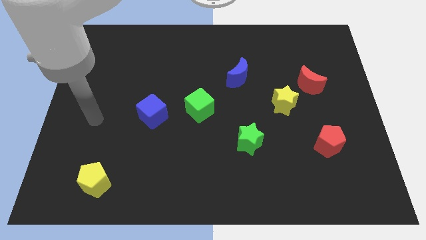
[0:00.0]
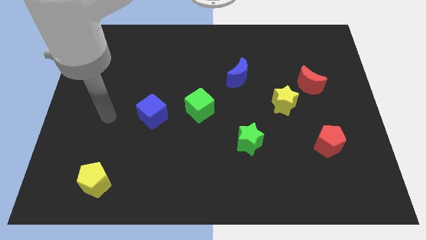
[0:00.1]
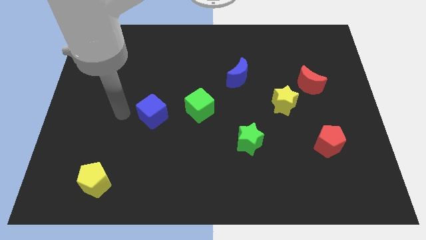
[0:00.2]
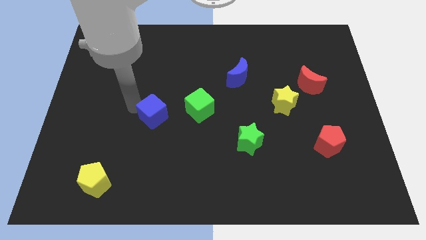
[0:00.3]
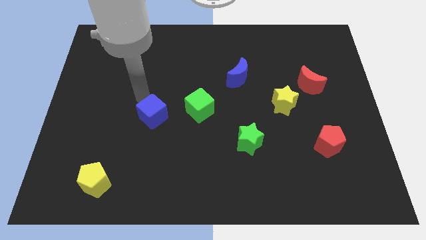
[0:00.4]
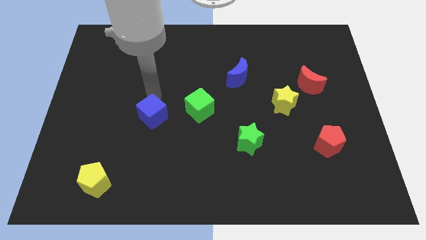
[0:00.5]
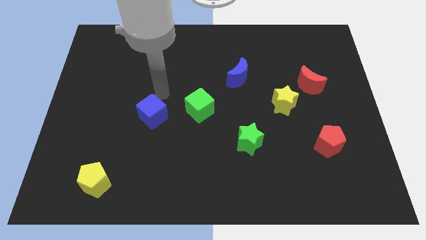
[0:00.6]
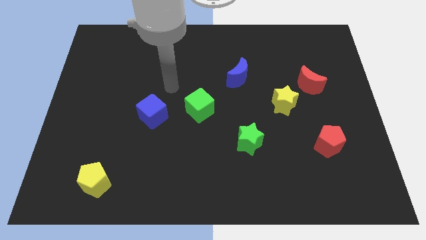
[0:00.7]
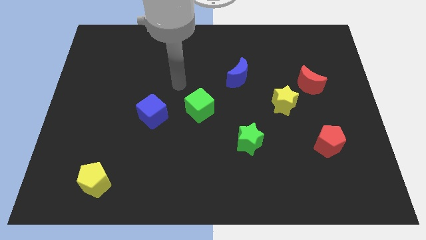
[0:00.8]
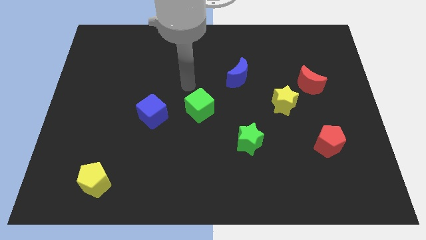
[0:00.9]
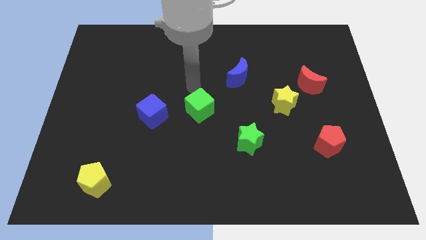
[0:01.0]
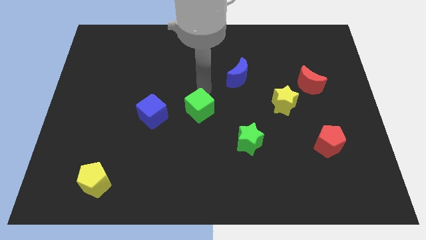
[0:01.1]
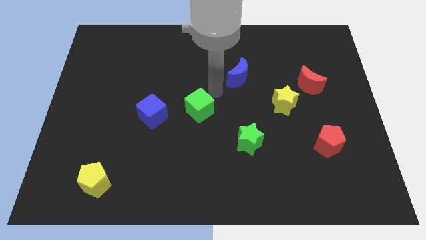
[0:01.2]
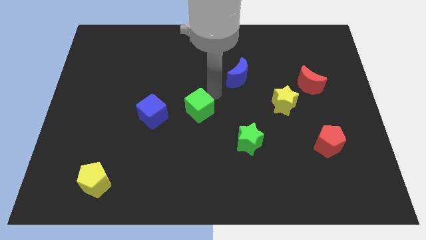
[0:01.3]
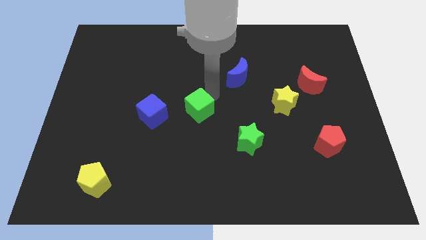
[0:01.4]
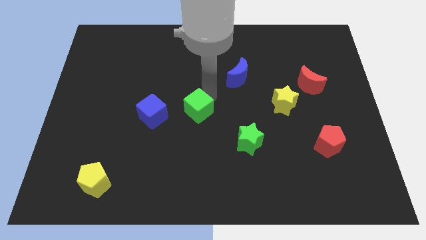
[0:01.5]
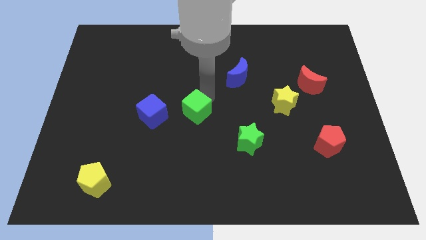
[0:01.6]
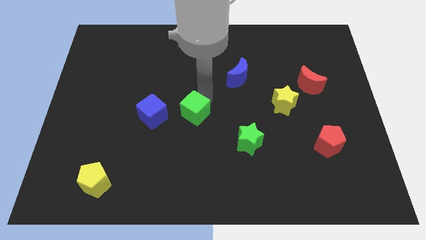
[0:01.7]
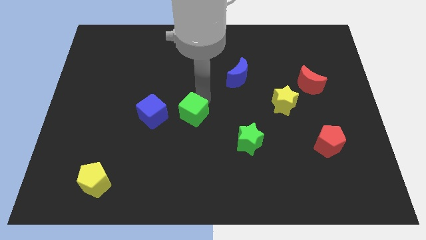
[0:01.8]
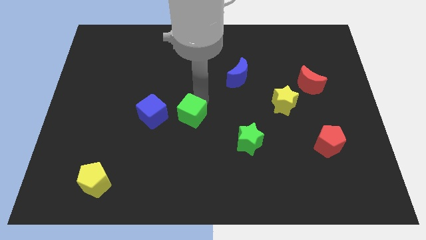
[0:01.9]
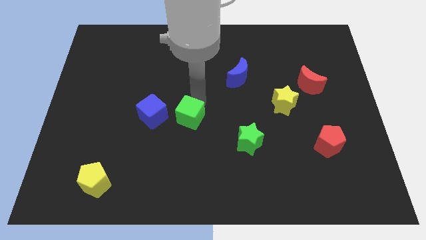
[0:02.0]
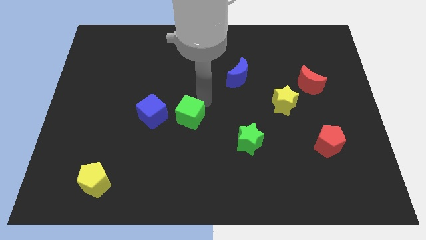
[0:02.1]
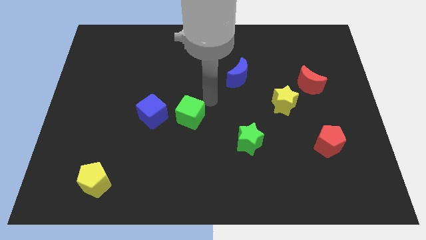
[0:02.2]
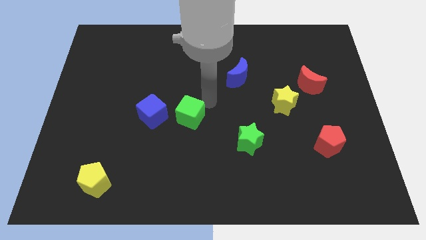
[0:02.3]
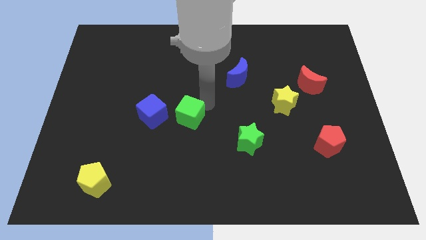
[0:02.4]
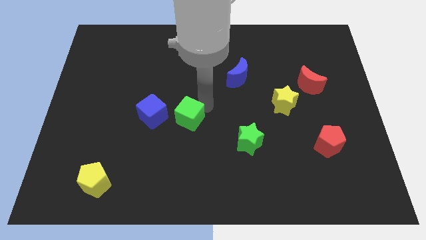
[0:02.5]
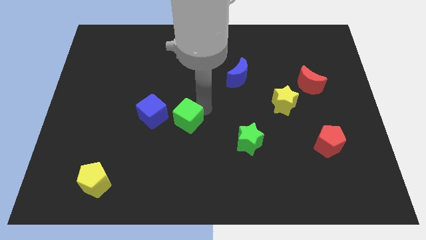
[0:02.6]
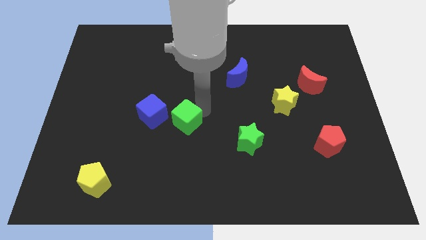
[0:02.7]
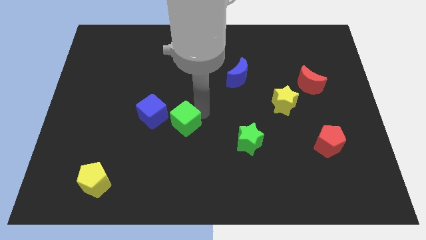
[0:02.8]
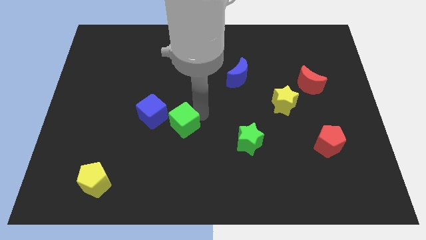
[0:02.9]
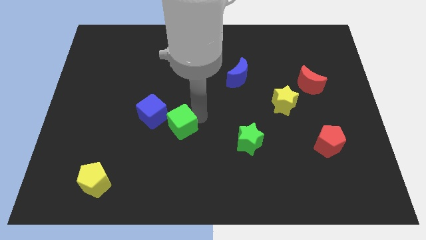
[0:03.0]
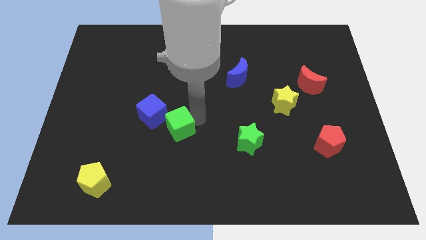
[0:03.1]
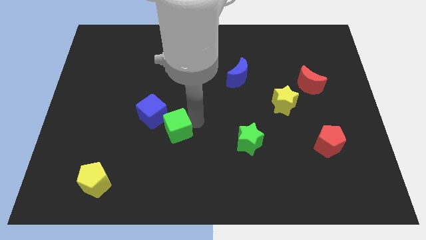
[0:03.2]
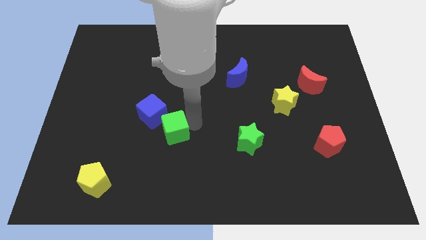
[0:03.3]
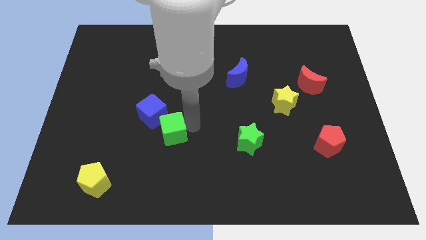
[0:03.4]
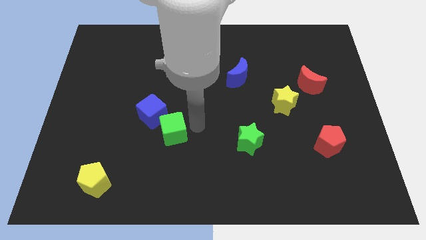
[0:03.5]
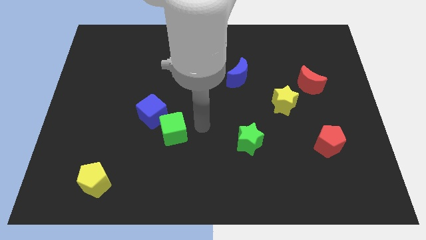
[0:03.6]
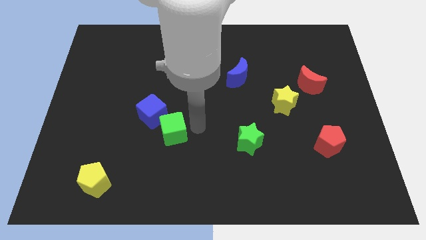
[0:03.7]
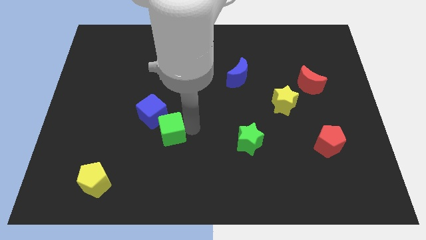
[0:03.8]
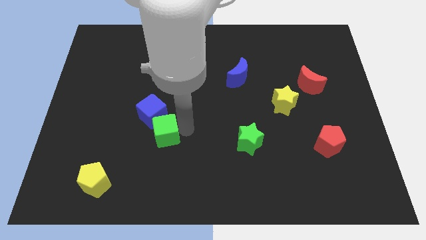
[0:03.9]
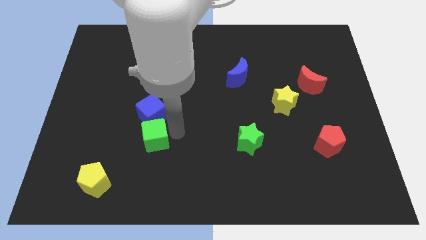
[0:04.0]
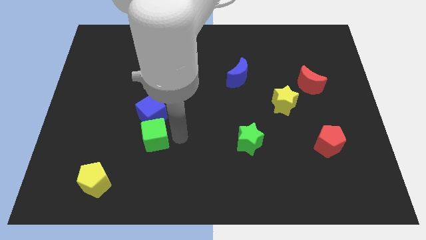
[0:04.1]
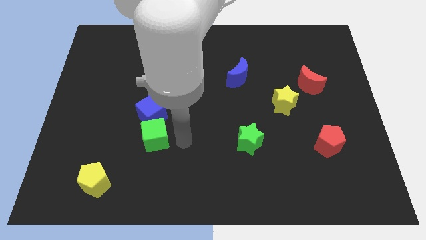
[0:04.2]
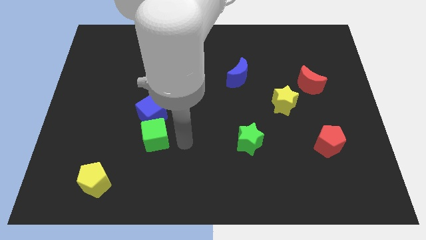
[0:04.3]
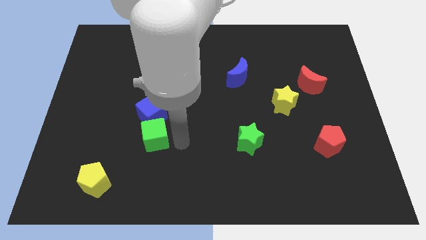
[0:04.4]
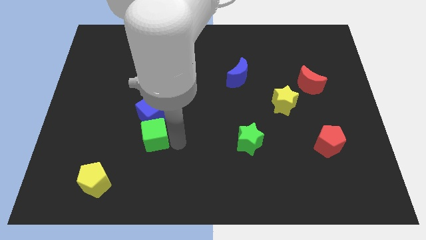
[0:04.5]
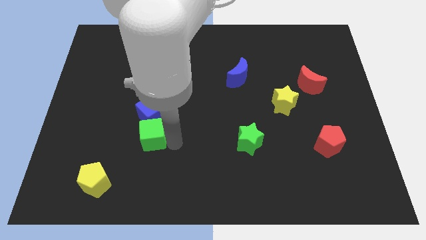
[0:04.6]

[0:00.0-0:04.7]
put the green cube to the bottom left side of the blue cube

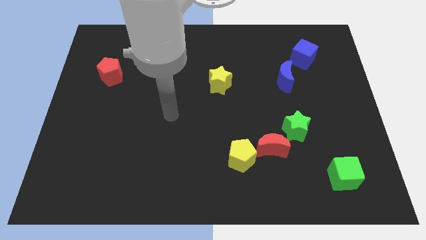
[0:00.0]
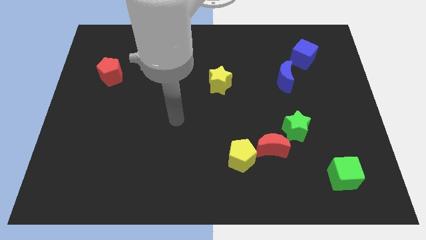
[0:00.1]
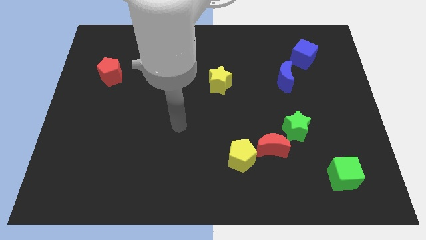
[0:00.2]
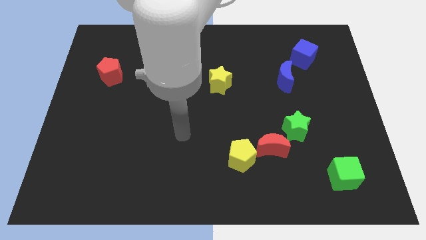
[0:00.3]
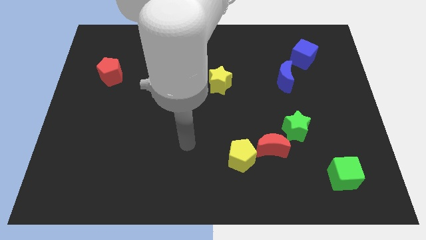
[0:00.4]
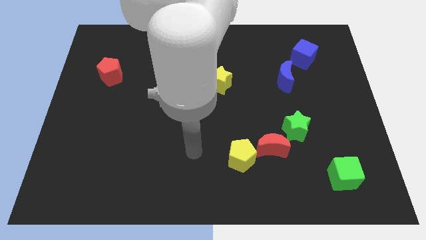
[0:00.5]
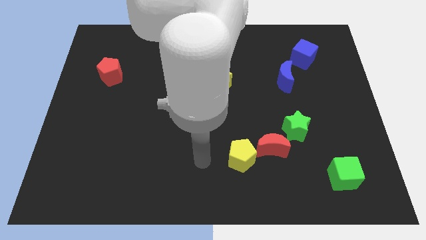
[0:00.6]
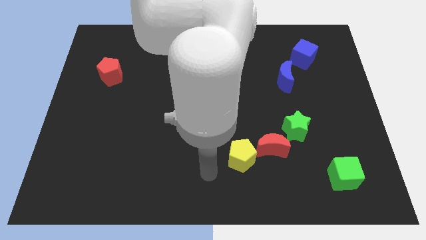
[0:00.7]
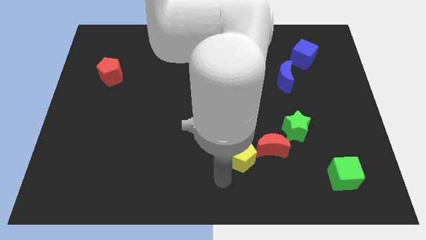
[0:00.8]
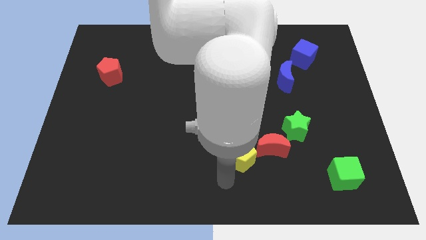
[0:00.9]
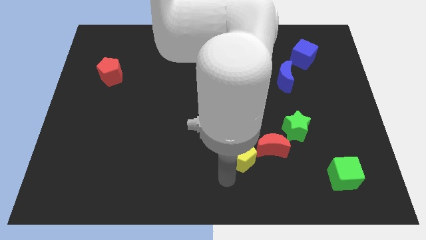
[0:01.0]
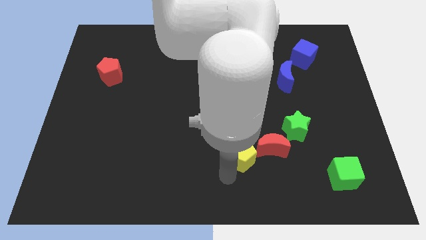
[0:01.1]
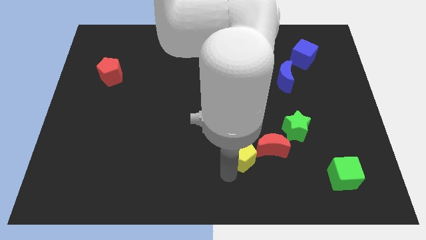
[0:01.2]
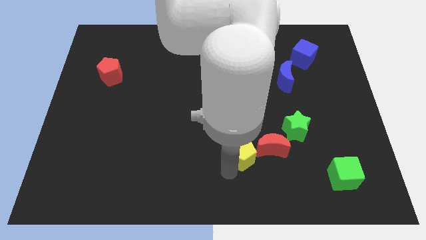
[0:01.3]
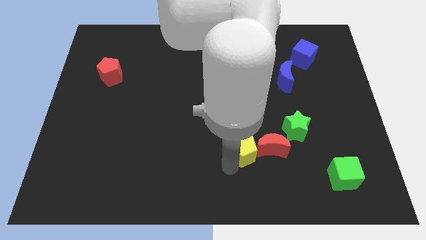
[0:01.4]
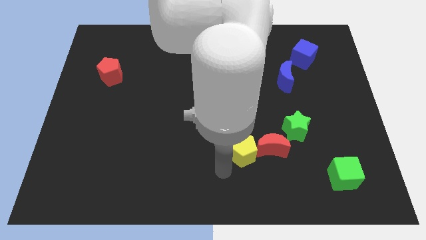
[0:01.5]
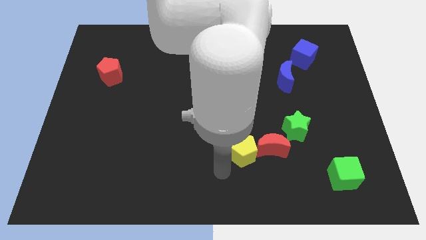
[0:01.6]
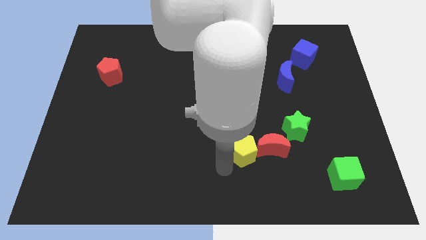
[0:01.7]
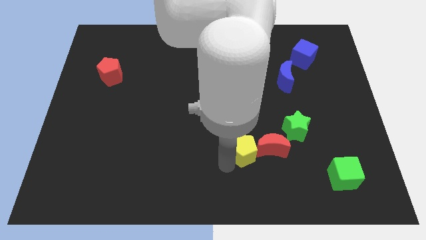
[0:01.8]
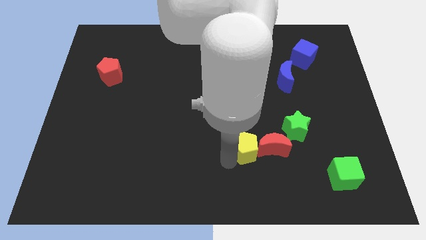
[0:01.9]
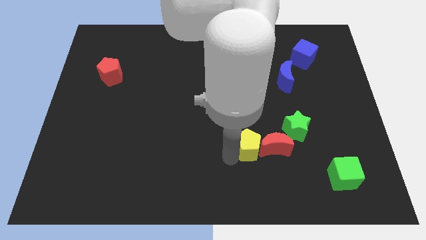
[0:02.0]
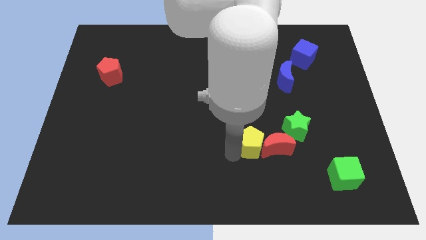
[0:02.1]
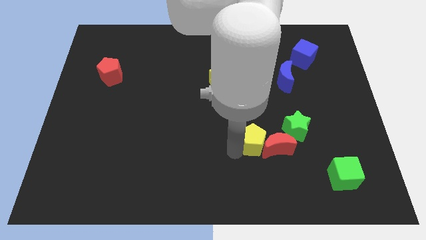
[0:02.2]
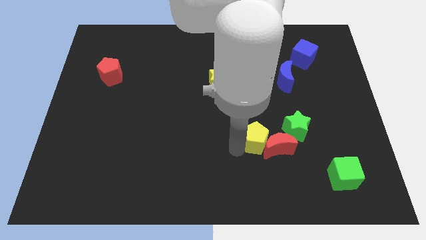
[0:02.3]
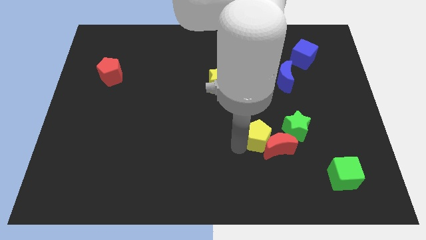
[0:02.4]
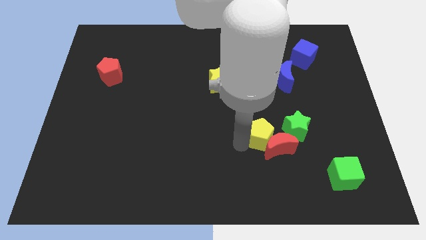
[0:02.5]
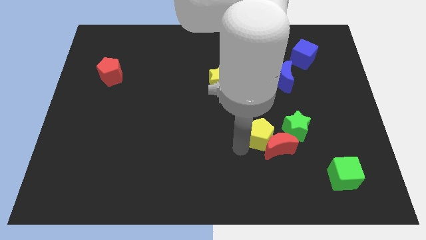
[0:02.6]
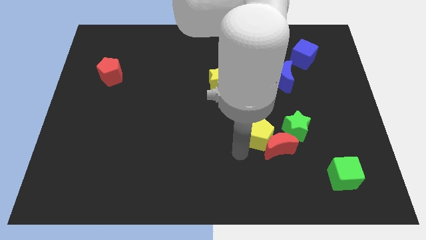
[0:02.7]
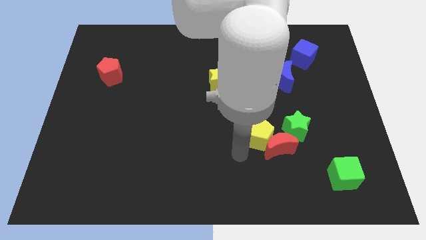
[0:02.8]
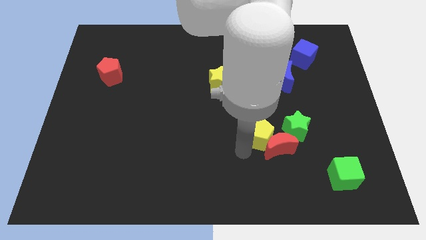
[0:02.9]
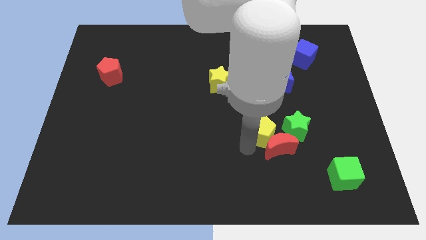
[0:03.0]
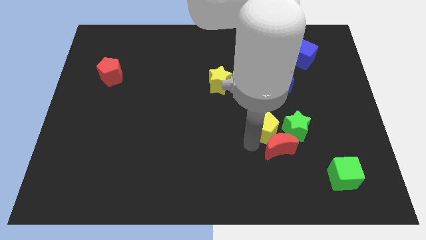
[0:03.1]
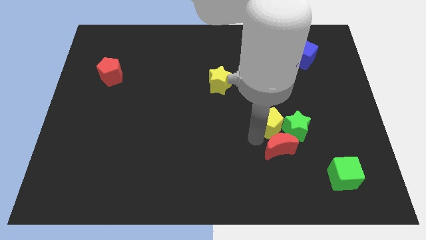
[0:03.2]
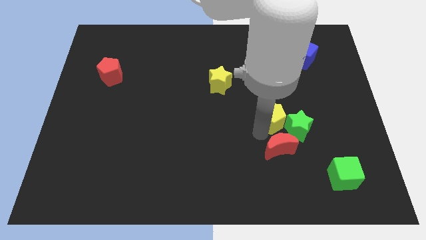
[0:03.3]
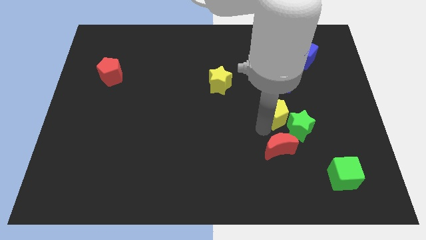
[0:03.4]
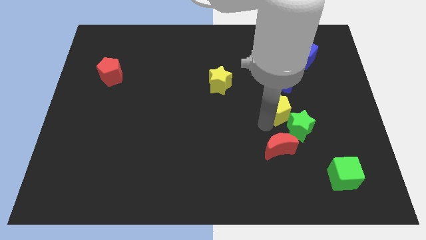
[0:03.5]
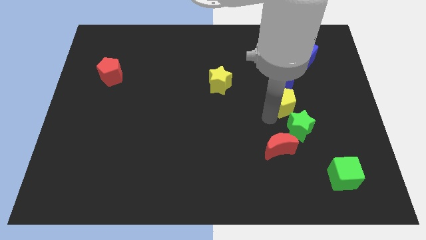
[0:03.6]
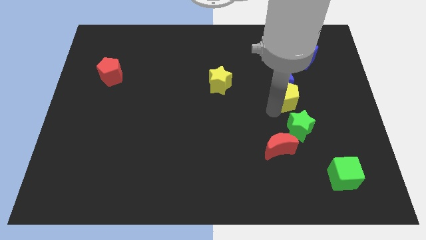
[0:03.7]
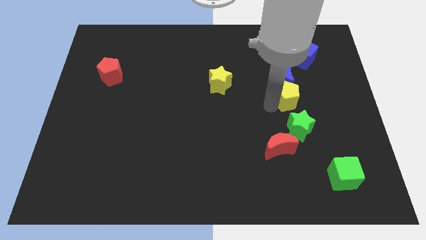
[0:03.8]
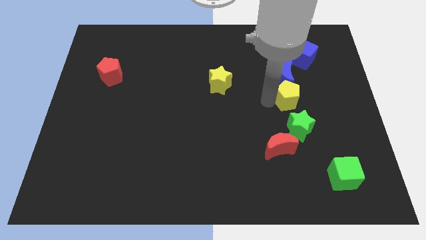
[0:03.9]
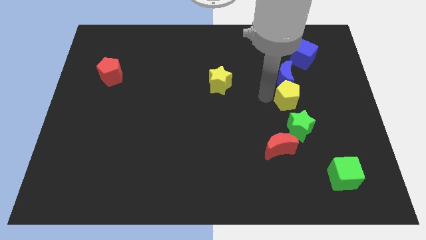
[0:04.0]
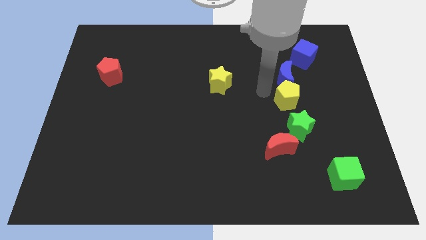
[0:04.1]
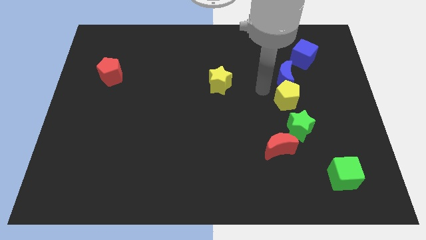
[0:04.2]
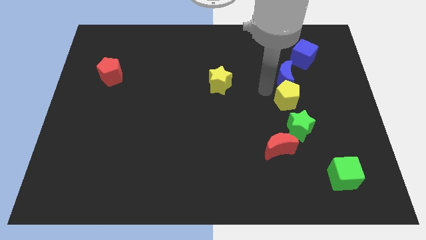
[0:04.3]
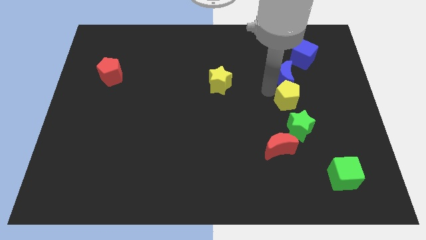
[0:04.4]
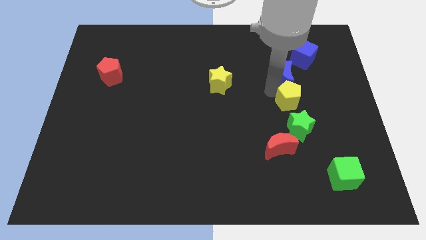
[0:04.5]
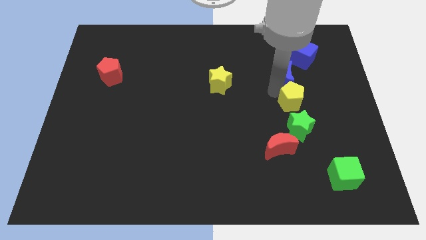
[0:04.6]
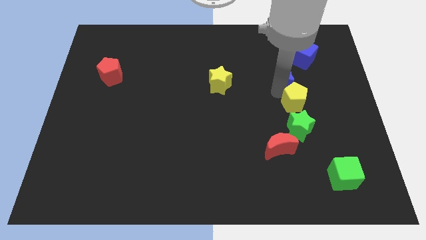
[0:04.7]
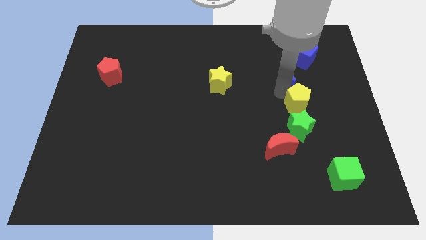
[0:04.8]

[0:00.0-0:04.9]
move the yellow pentagon to the top right of the green star
